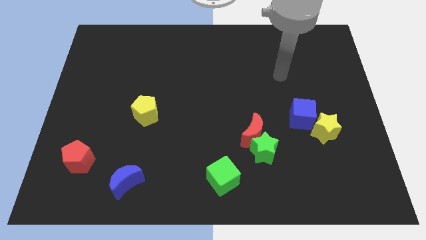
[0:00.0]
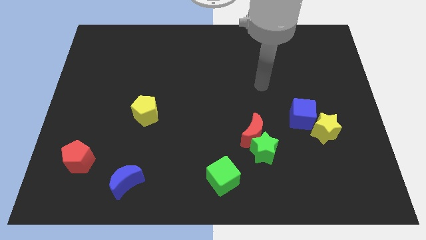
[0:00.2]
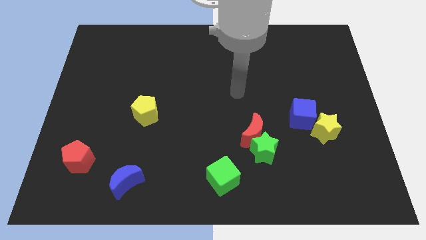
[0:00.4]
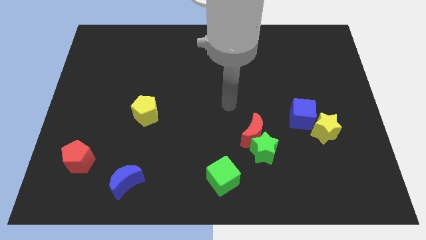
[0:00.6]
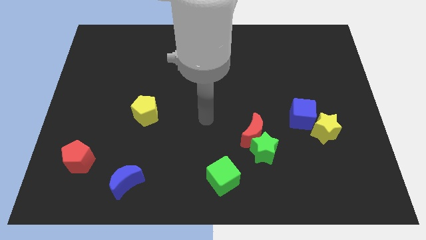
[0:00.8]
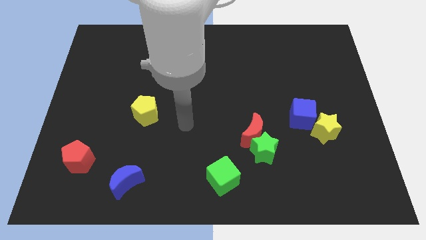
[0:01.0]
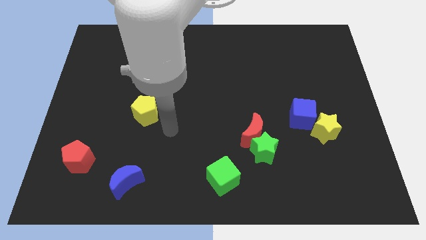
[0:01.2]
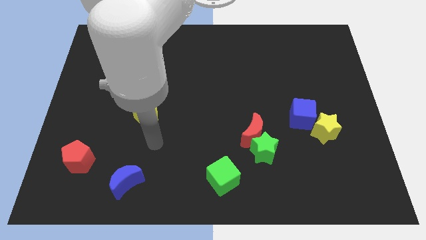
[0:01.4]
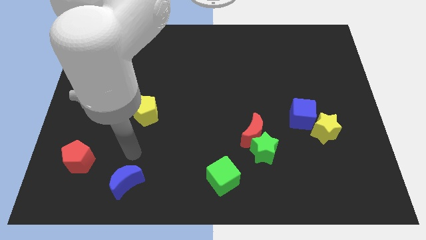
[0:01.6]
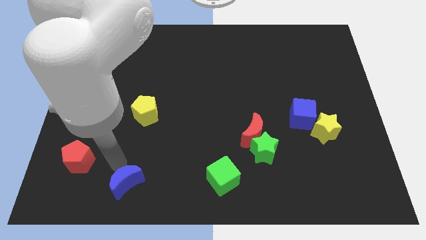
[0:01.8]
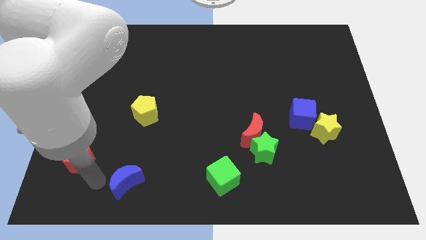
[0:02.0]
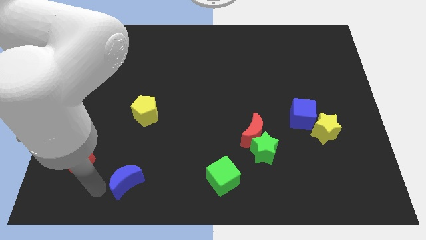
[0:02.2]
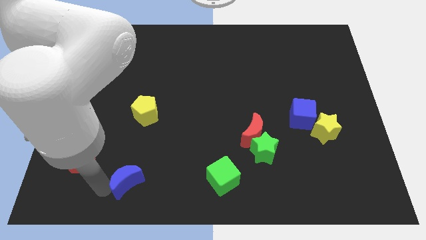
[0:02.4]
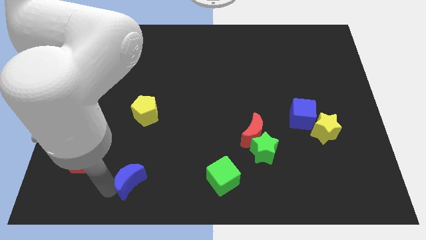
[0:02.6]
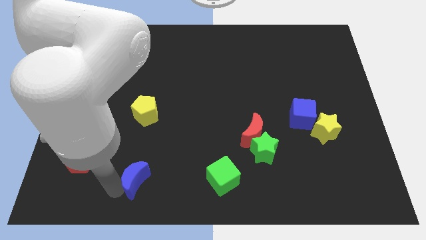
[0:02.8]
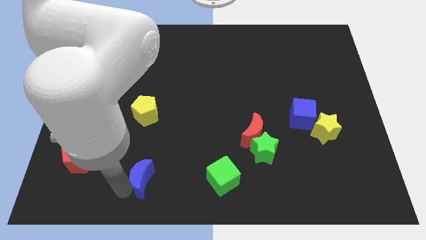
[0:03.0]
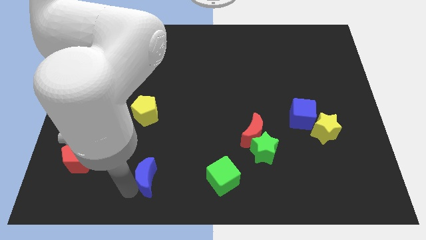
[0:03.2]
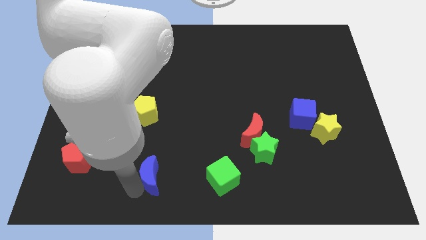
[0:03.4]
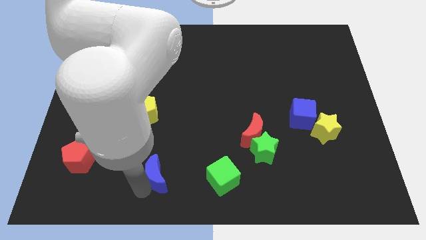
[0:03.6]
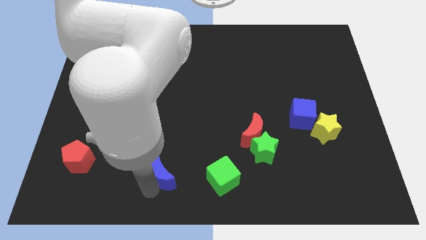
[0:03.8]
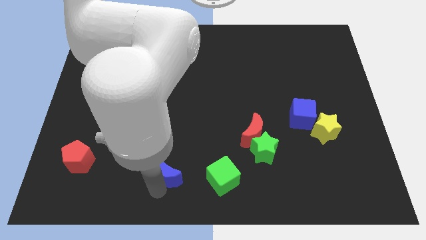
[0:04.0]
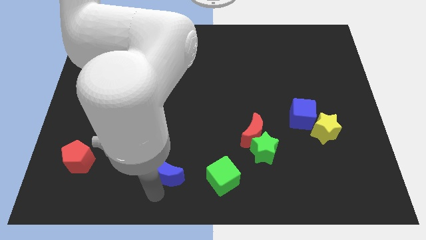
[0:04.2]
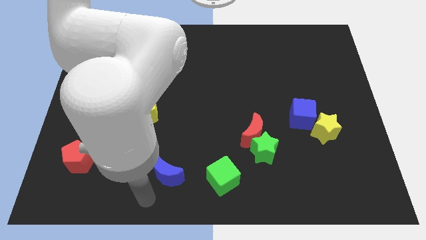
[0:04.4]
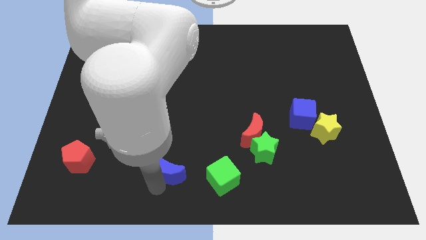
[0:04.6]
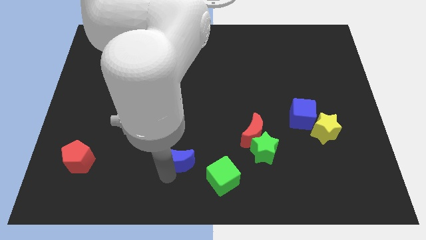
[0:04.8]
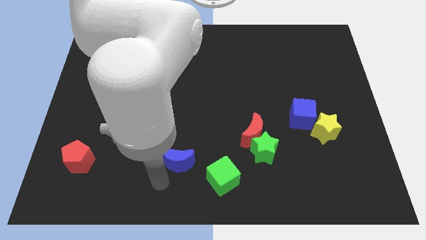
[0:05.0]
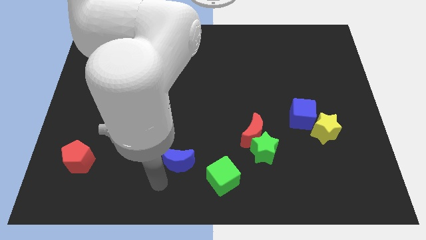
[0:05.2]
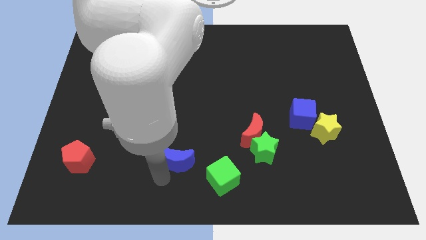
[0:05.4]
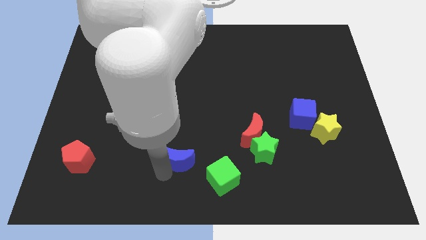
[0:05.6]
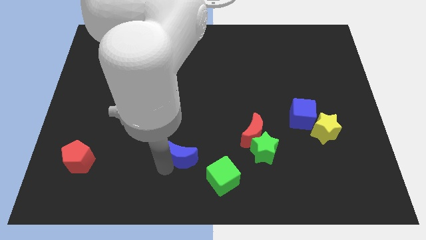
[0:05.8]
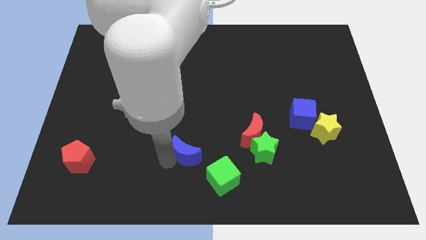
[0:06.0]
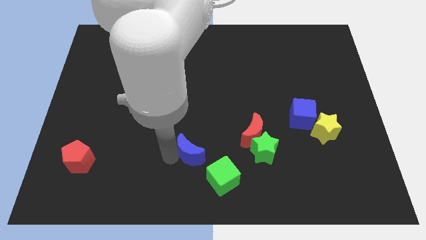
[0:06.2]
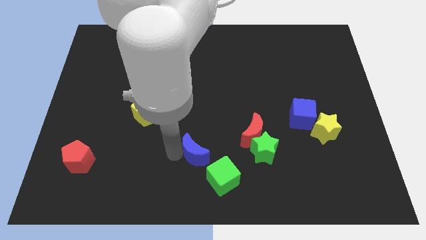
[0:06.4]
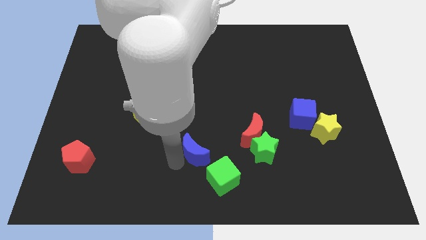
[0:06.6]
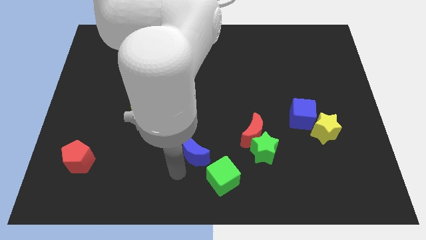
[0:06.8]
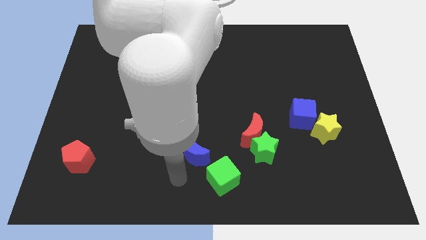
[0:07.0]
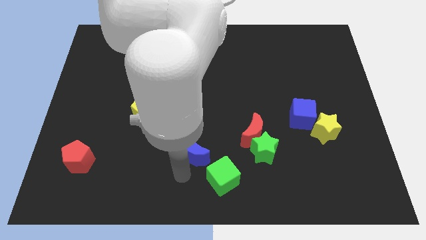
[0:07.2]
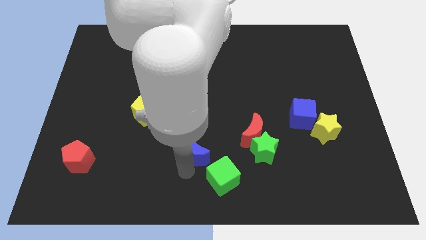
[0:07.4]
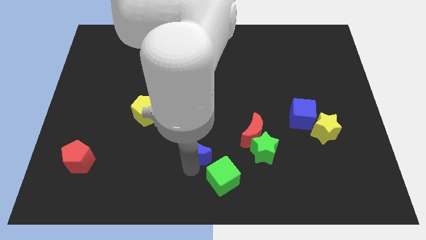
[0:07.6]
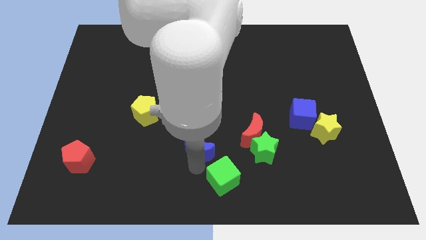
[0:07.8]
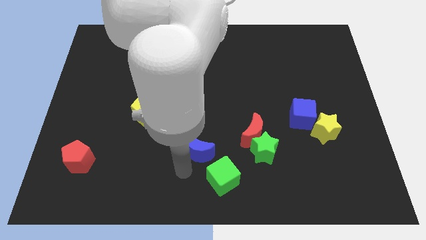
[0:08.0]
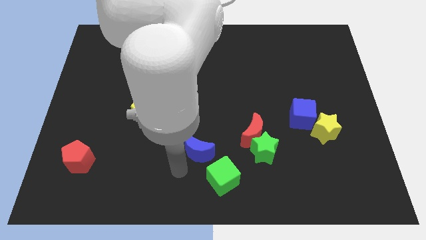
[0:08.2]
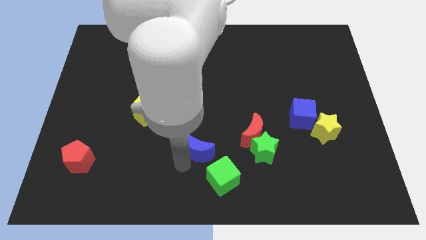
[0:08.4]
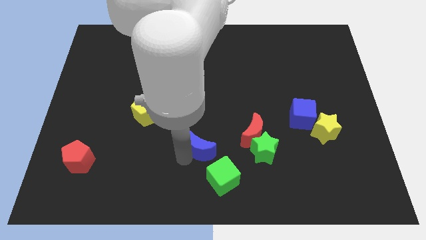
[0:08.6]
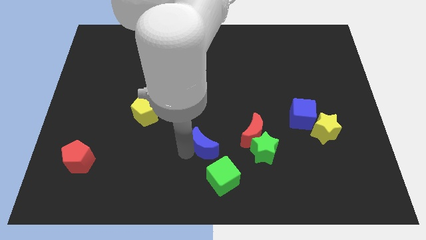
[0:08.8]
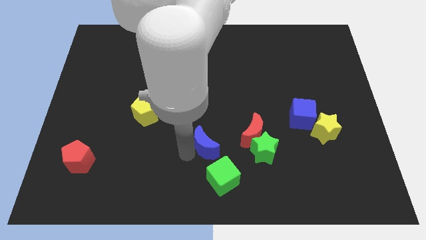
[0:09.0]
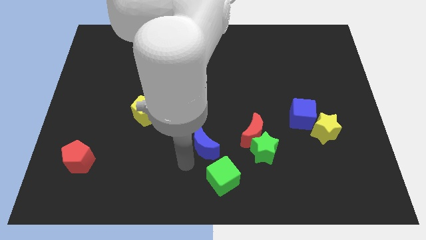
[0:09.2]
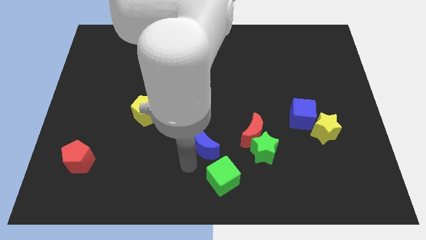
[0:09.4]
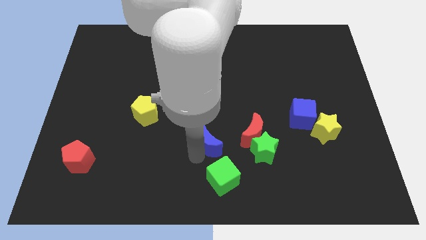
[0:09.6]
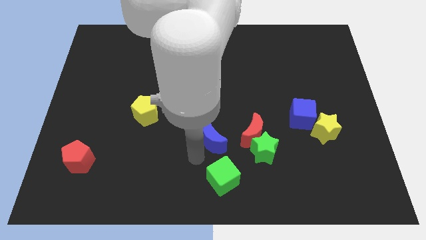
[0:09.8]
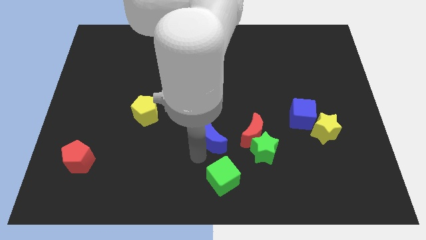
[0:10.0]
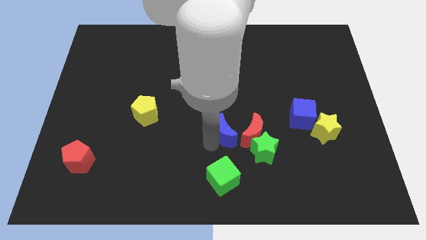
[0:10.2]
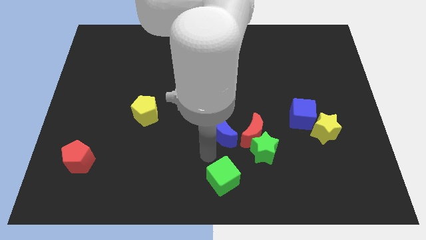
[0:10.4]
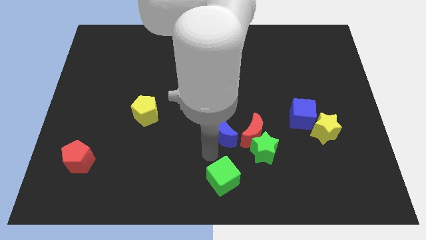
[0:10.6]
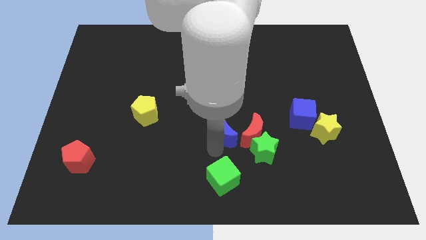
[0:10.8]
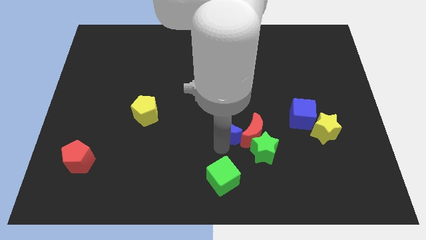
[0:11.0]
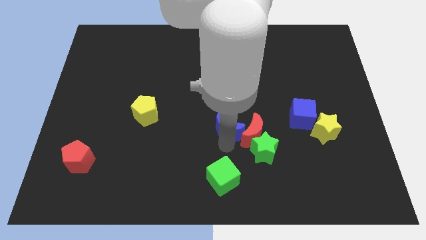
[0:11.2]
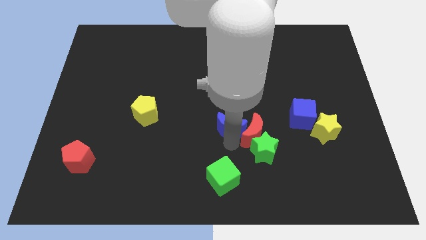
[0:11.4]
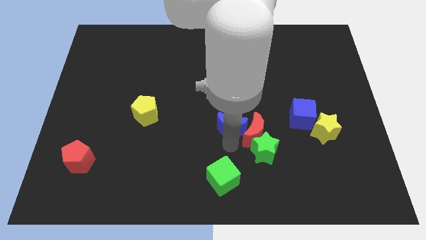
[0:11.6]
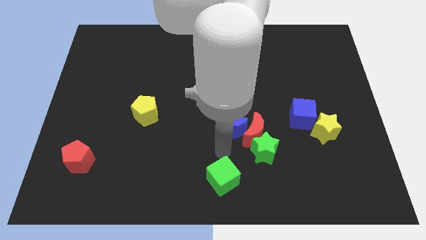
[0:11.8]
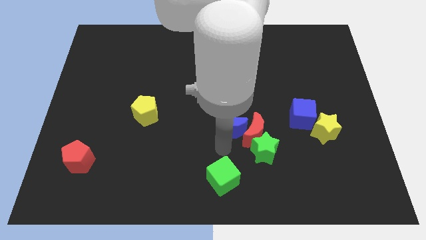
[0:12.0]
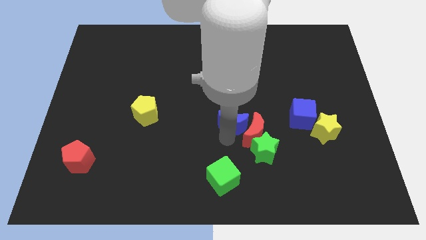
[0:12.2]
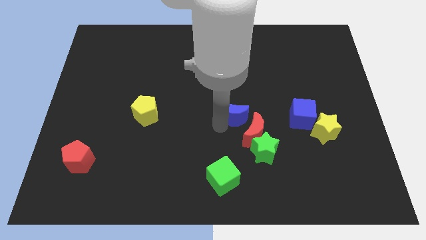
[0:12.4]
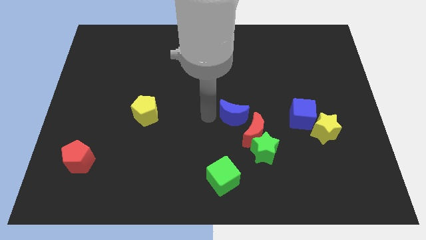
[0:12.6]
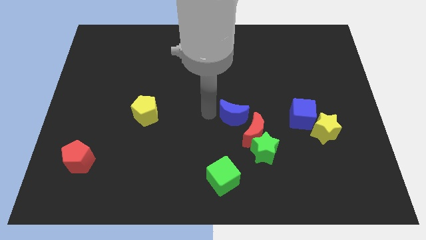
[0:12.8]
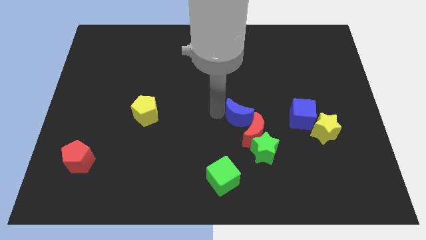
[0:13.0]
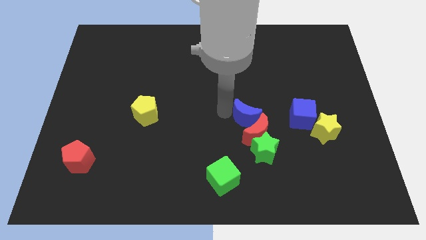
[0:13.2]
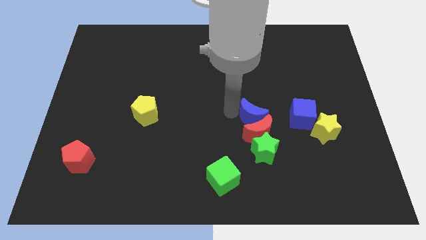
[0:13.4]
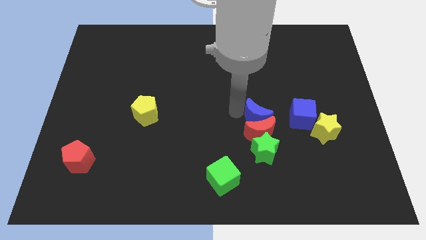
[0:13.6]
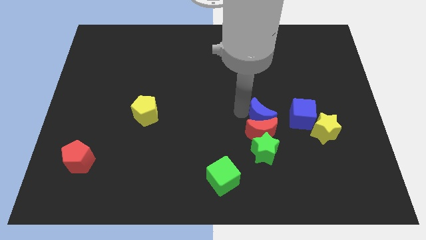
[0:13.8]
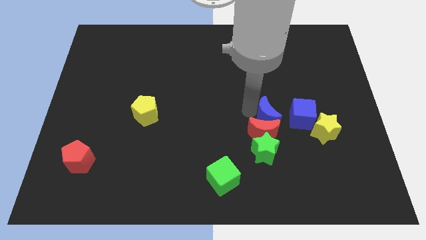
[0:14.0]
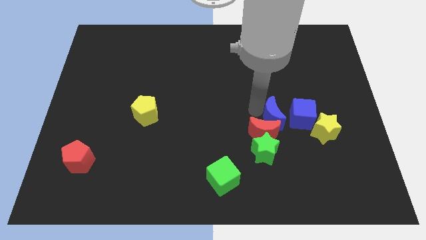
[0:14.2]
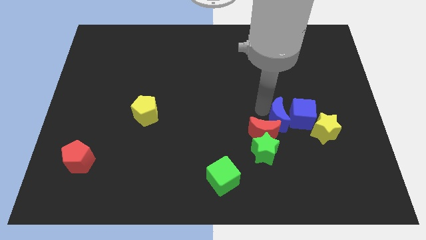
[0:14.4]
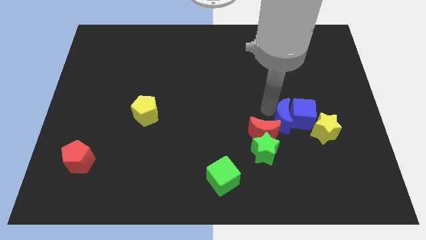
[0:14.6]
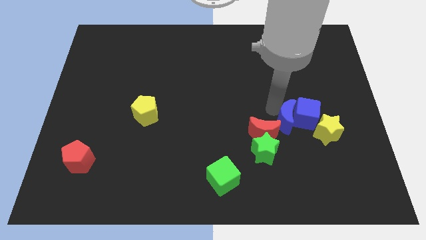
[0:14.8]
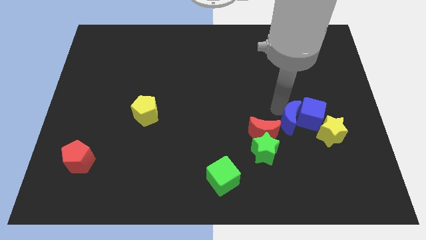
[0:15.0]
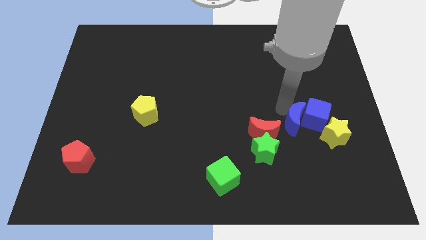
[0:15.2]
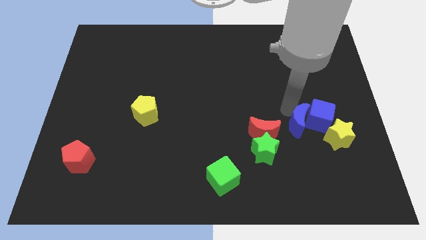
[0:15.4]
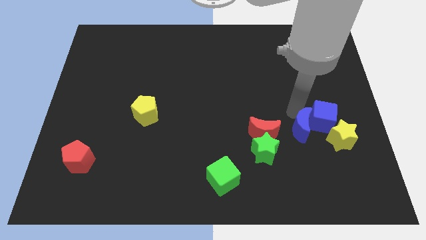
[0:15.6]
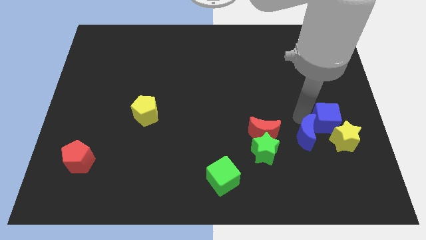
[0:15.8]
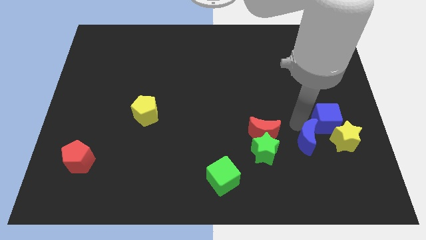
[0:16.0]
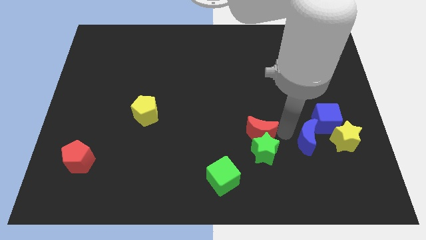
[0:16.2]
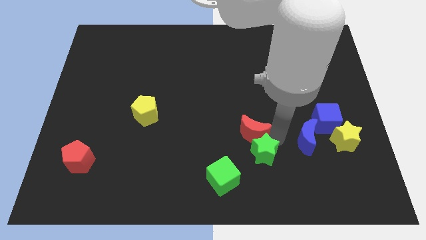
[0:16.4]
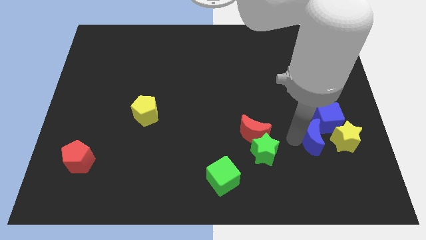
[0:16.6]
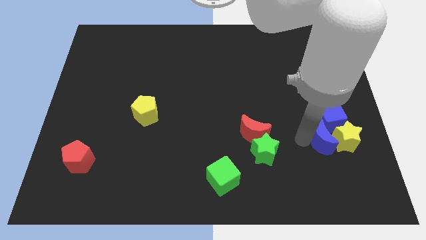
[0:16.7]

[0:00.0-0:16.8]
put the blue moon towards the yellow star
